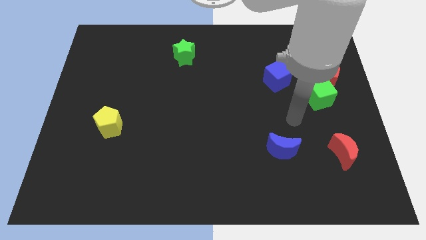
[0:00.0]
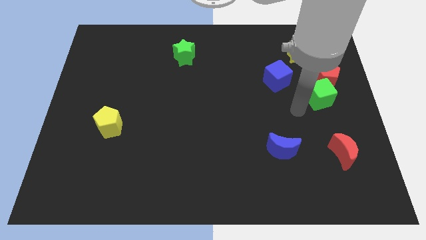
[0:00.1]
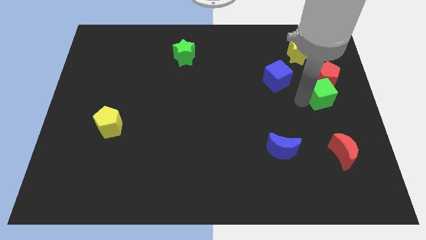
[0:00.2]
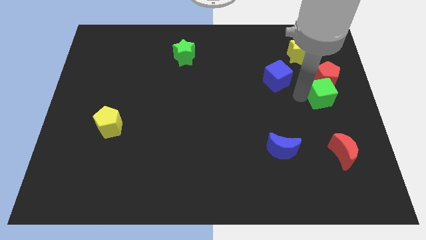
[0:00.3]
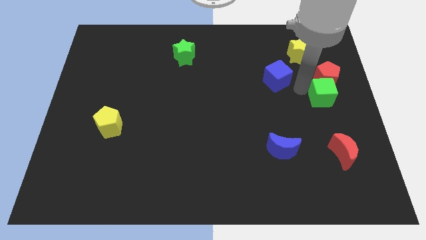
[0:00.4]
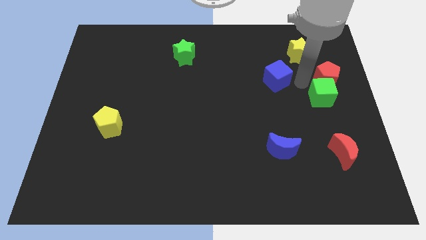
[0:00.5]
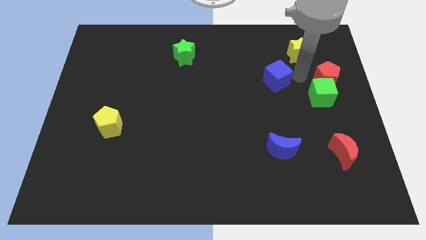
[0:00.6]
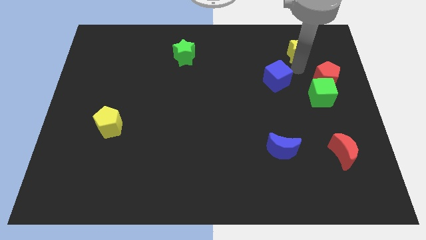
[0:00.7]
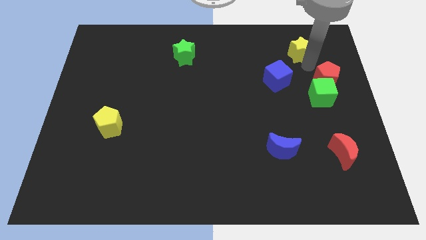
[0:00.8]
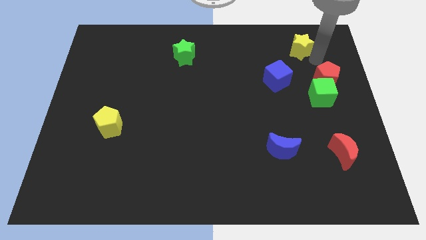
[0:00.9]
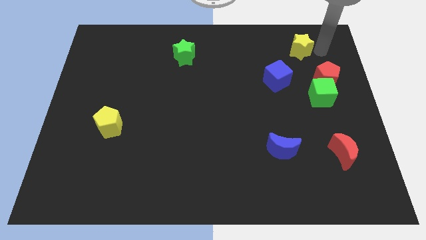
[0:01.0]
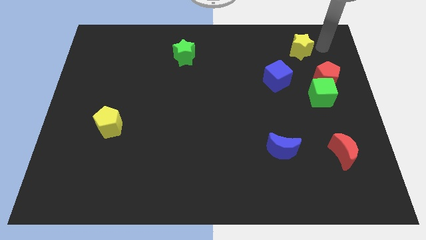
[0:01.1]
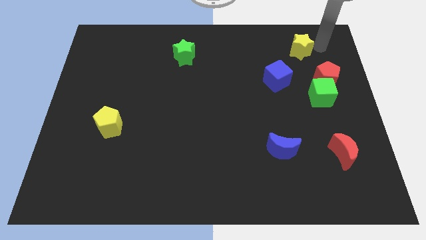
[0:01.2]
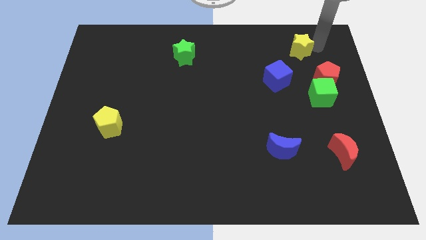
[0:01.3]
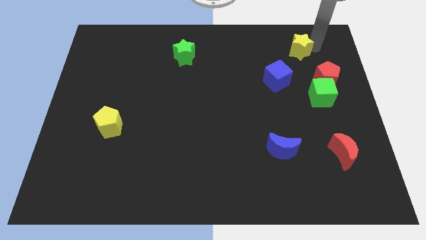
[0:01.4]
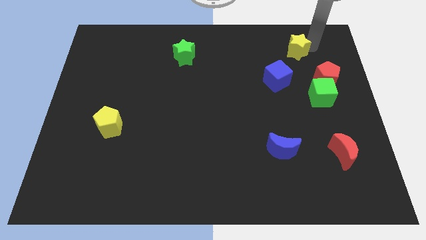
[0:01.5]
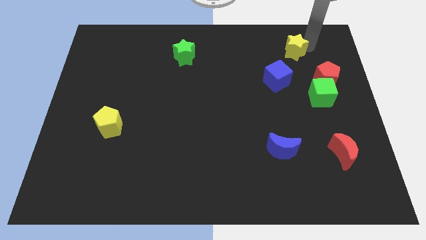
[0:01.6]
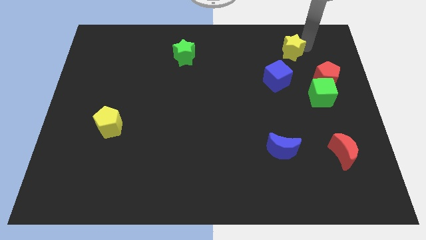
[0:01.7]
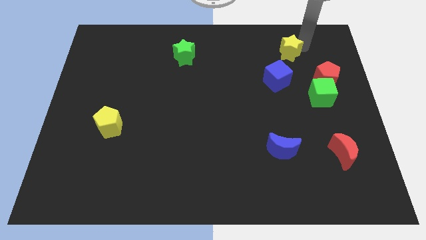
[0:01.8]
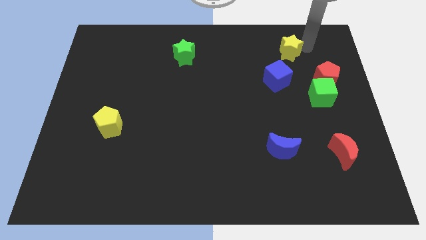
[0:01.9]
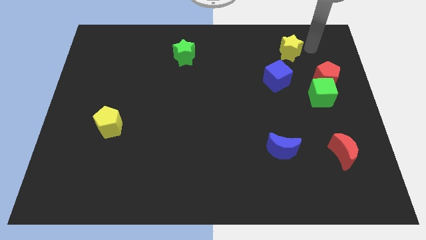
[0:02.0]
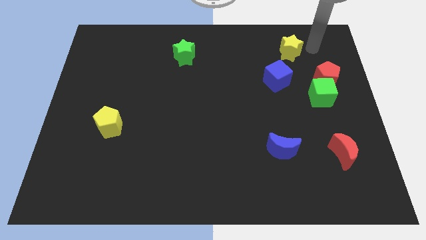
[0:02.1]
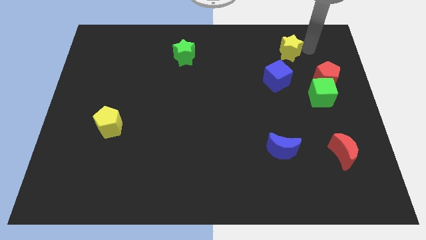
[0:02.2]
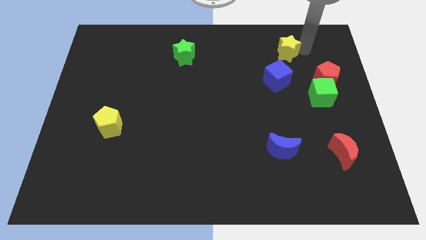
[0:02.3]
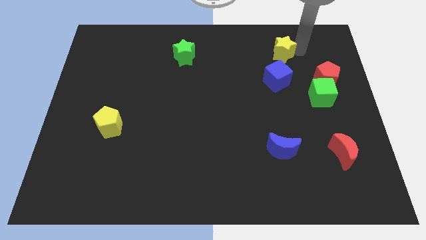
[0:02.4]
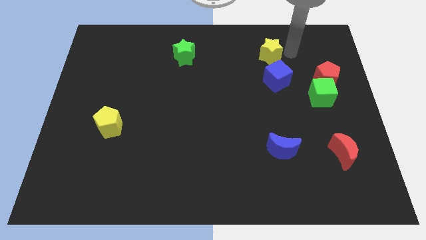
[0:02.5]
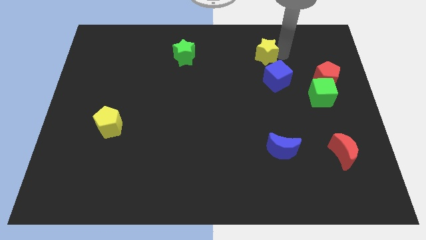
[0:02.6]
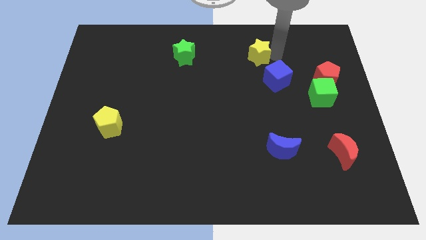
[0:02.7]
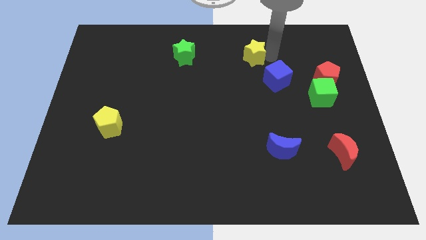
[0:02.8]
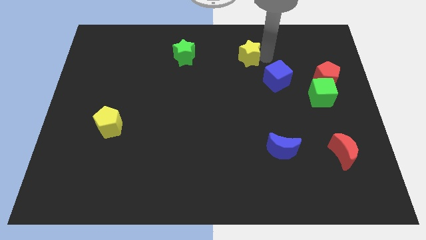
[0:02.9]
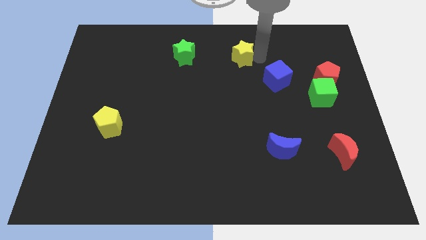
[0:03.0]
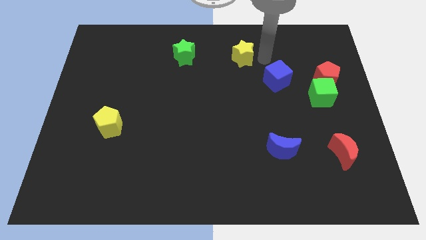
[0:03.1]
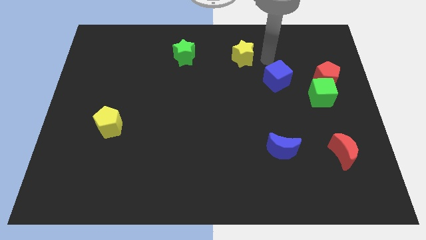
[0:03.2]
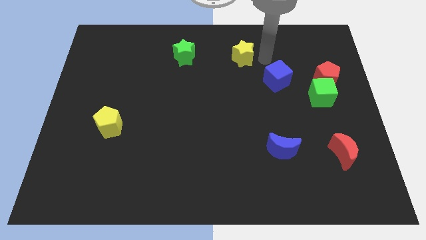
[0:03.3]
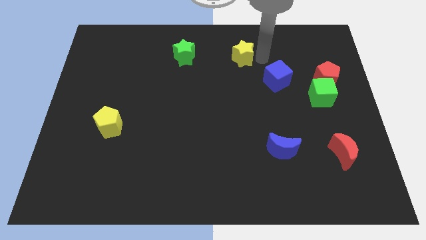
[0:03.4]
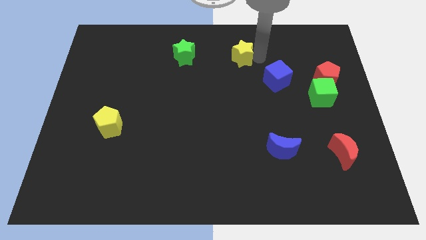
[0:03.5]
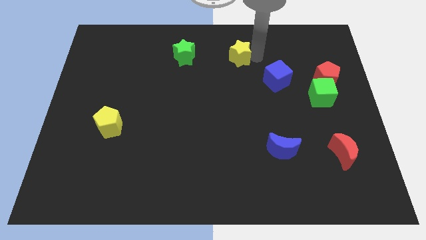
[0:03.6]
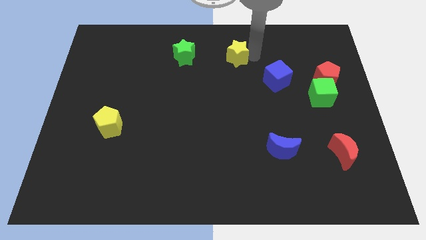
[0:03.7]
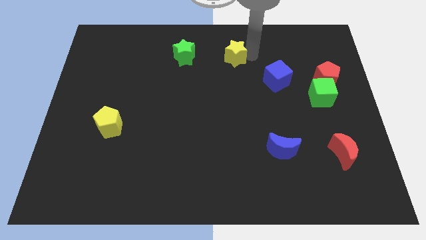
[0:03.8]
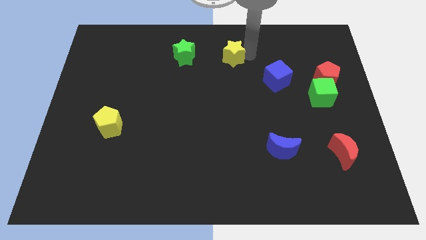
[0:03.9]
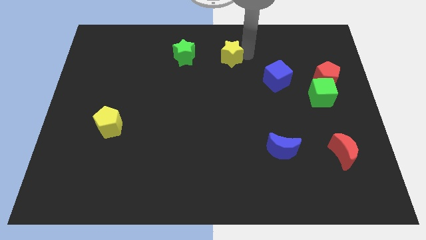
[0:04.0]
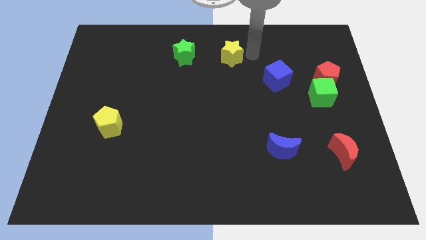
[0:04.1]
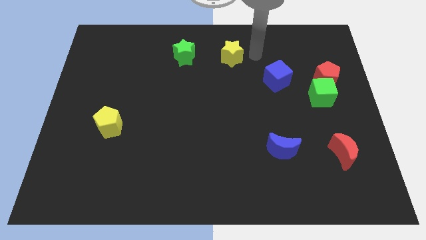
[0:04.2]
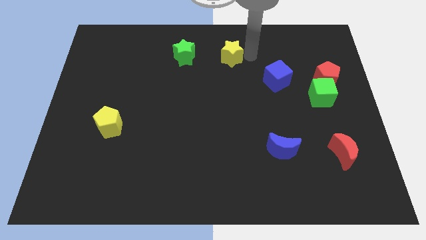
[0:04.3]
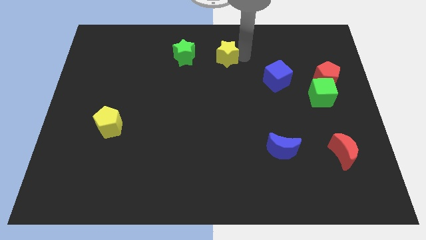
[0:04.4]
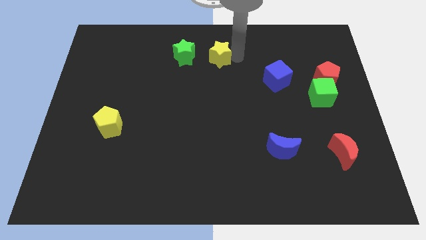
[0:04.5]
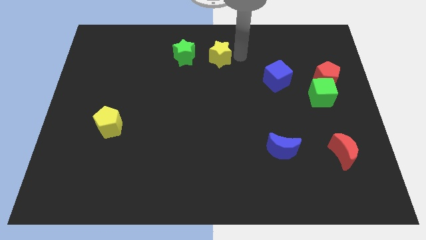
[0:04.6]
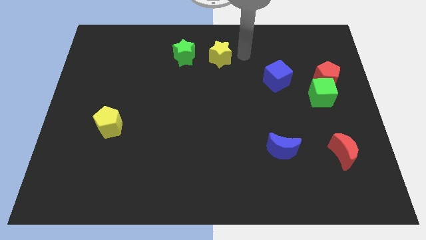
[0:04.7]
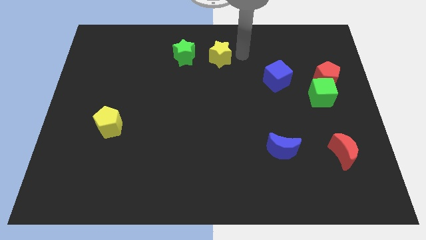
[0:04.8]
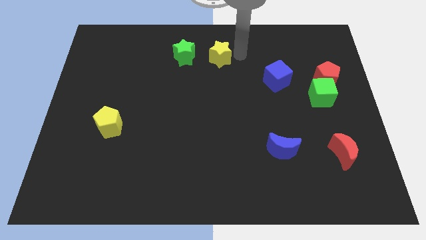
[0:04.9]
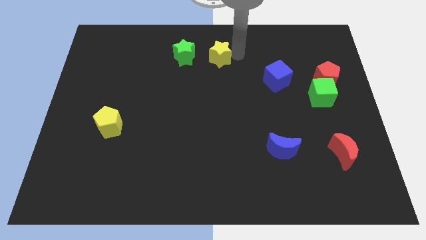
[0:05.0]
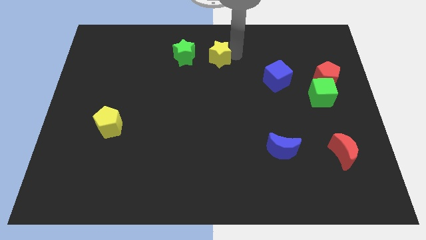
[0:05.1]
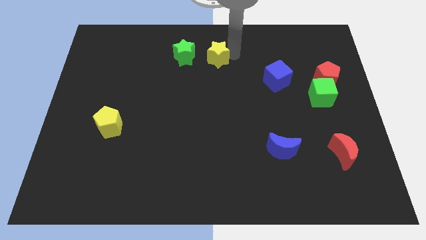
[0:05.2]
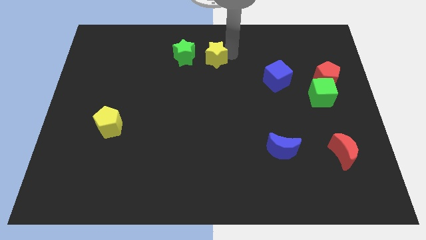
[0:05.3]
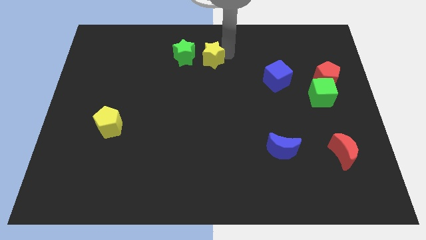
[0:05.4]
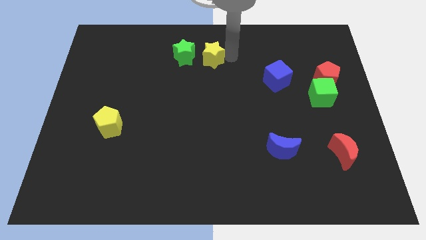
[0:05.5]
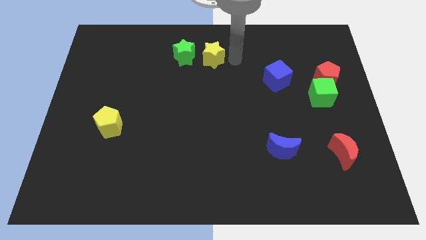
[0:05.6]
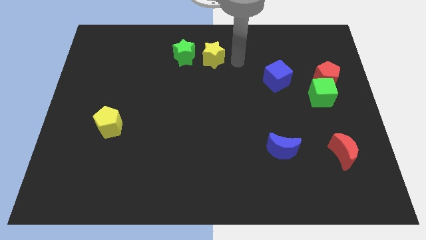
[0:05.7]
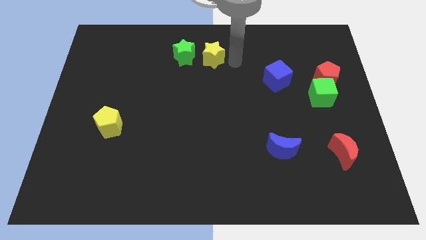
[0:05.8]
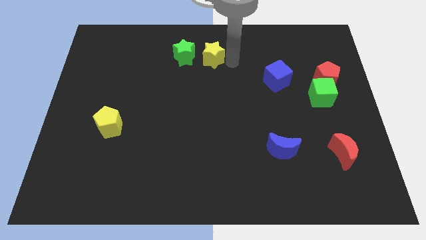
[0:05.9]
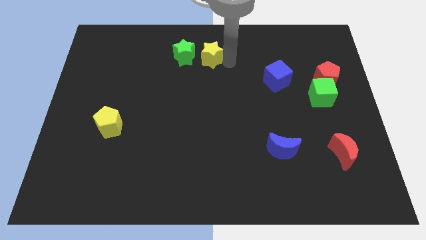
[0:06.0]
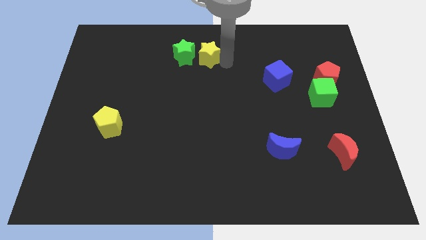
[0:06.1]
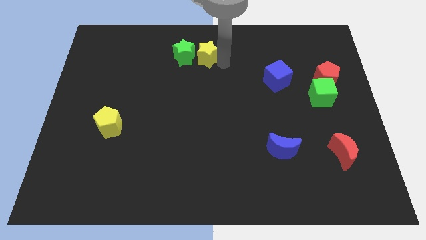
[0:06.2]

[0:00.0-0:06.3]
slide the yellow star close to the green star

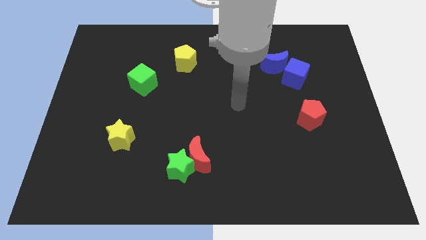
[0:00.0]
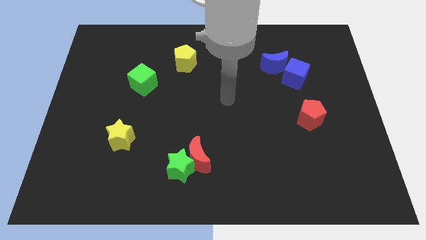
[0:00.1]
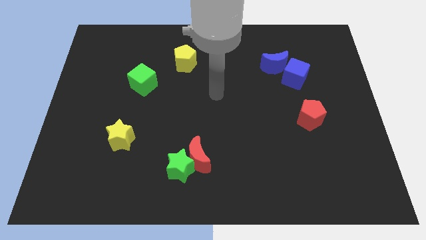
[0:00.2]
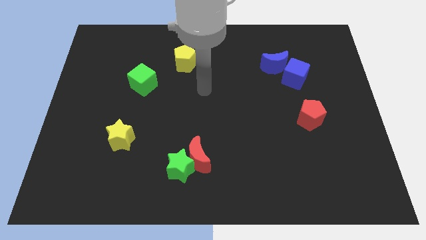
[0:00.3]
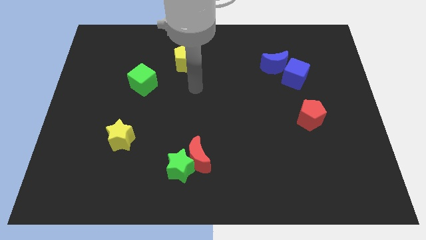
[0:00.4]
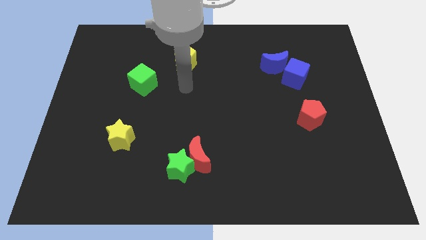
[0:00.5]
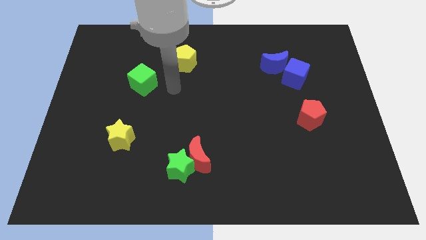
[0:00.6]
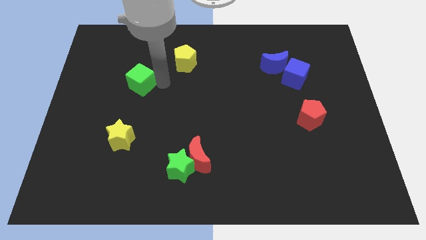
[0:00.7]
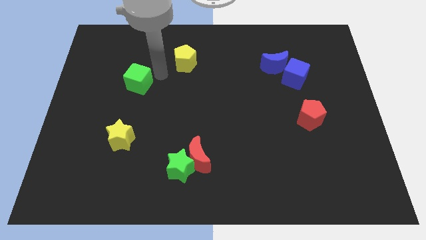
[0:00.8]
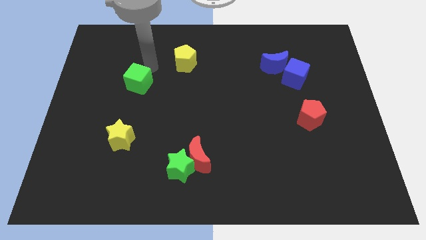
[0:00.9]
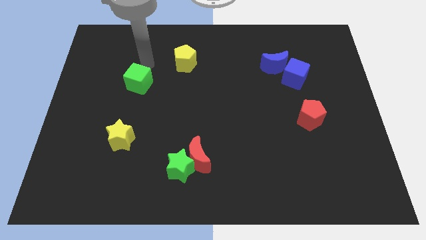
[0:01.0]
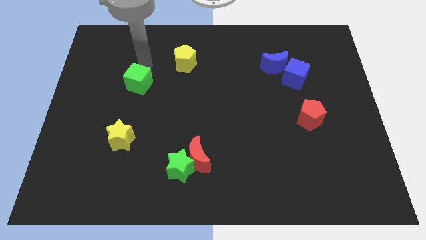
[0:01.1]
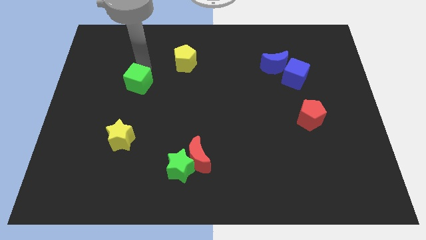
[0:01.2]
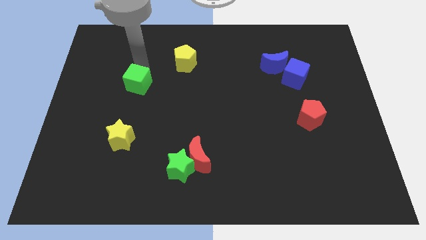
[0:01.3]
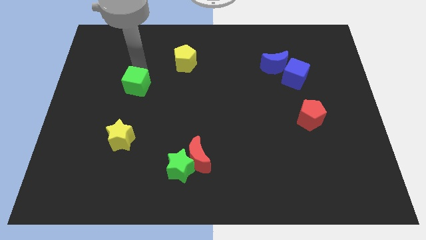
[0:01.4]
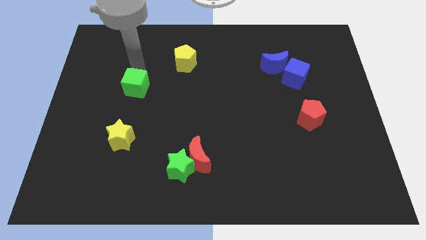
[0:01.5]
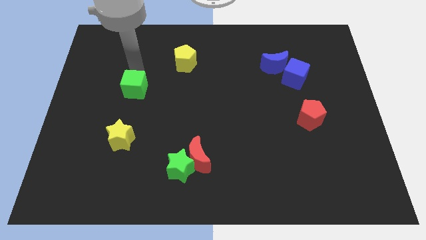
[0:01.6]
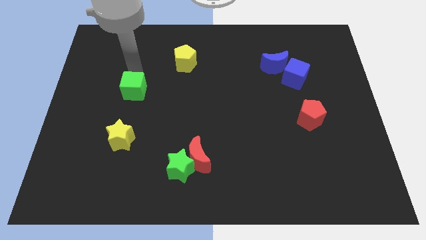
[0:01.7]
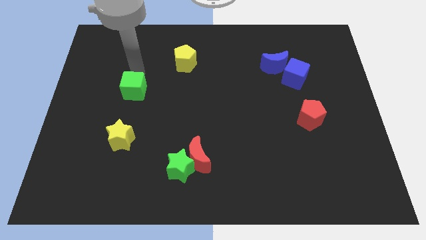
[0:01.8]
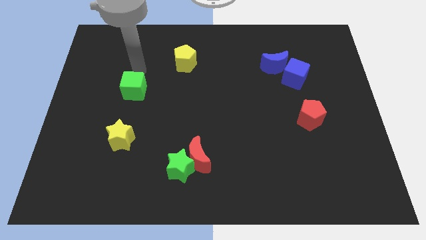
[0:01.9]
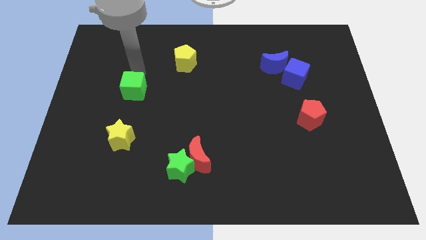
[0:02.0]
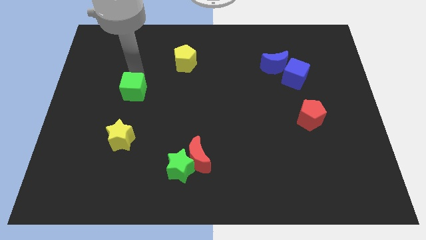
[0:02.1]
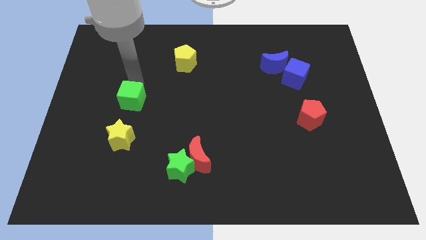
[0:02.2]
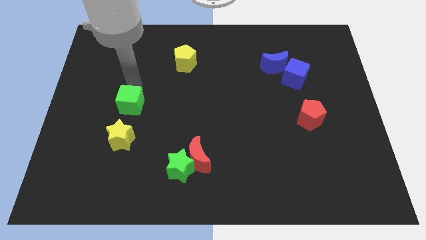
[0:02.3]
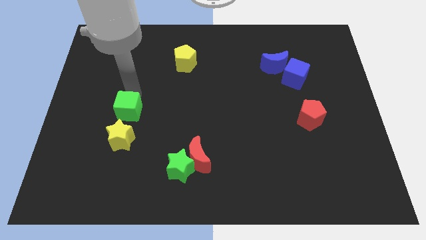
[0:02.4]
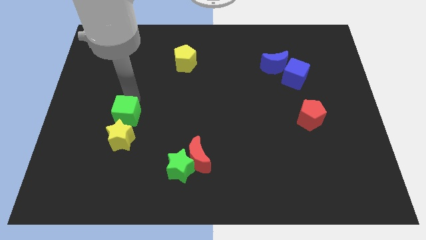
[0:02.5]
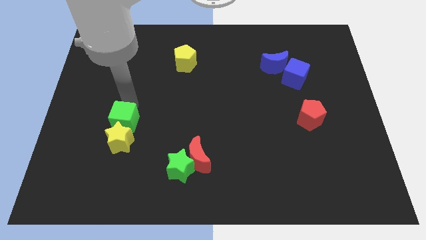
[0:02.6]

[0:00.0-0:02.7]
put the green cube towards the yellow star
